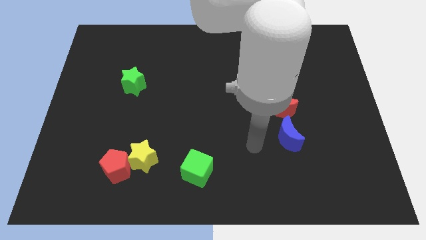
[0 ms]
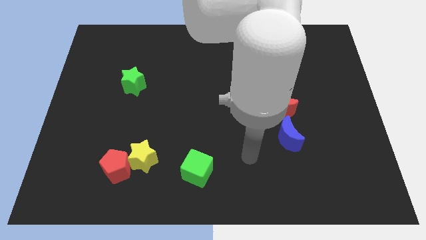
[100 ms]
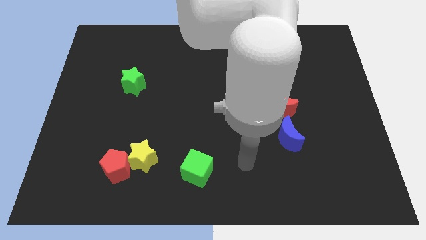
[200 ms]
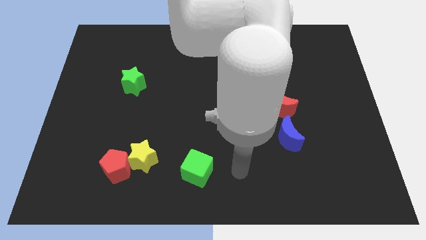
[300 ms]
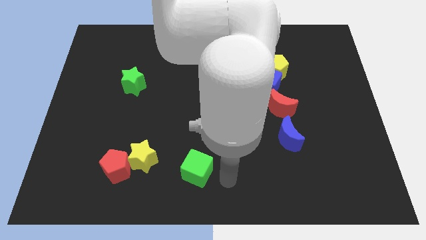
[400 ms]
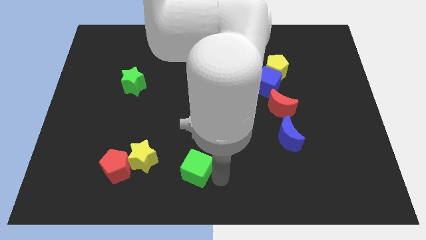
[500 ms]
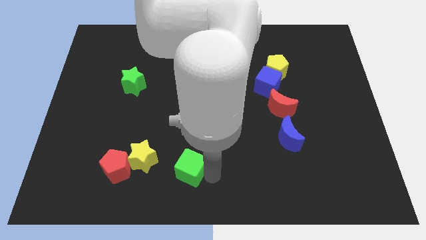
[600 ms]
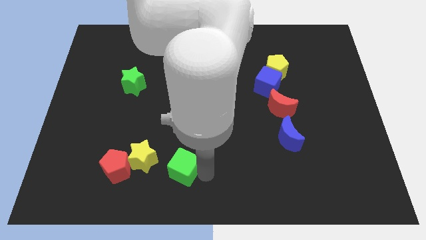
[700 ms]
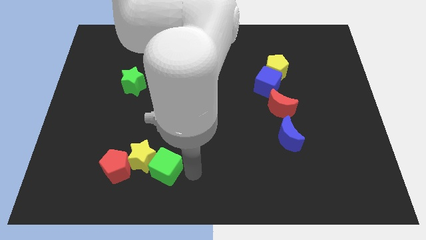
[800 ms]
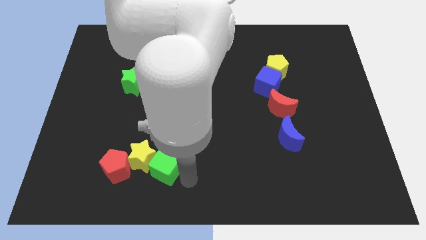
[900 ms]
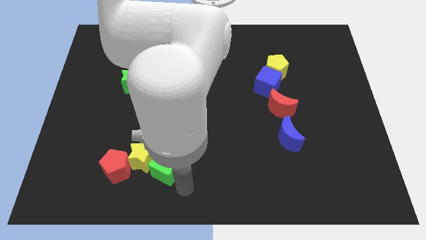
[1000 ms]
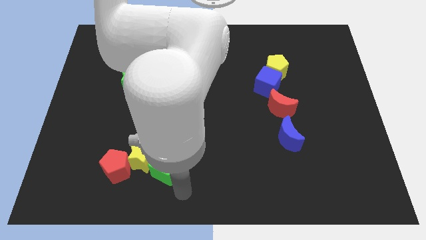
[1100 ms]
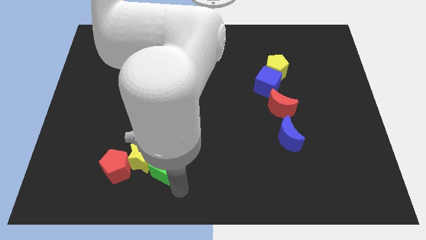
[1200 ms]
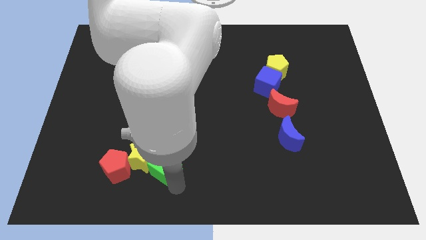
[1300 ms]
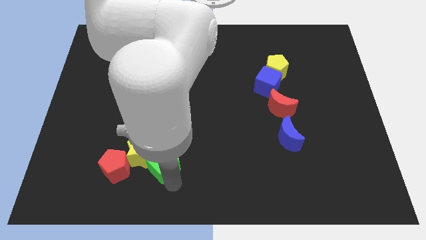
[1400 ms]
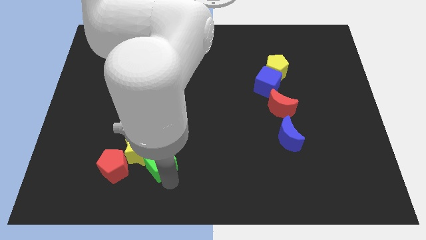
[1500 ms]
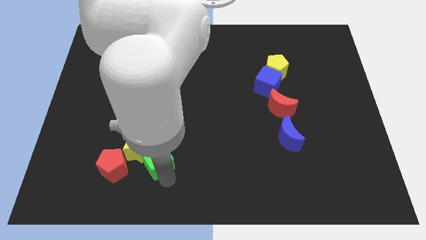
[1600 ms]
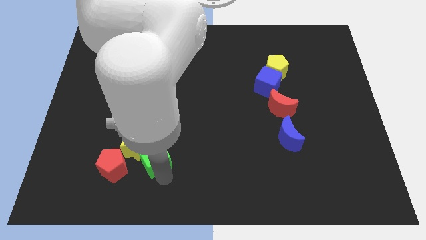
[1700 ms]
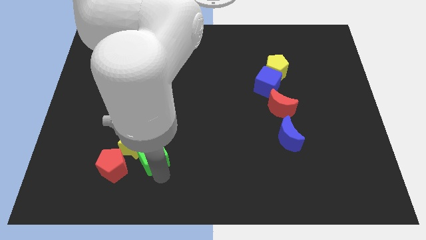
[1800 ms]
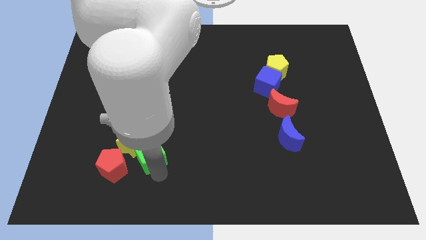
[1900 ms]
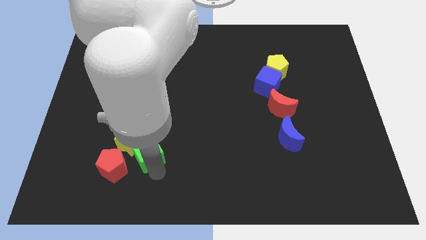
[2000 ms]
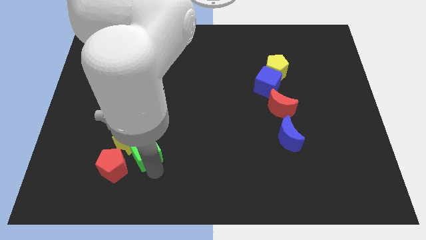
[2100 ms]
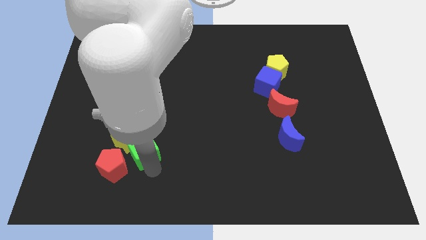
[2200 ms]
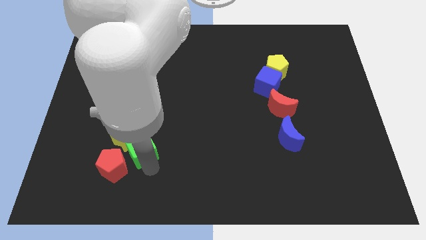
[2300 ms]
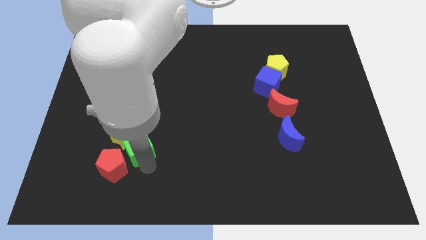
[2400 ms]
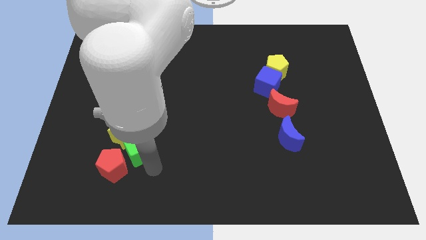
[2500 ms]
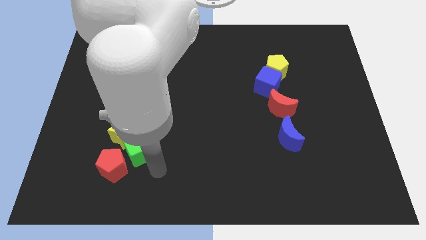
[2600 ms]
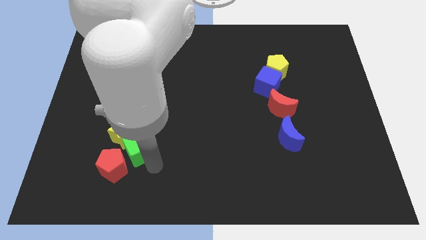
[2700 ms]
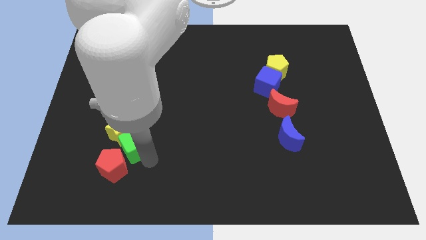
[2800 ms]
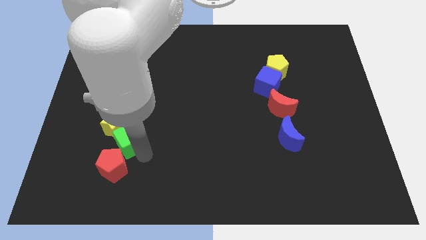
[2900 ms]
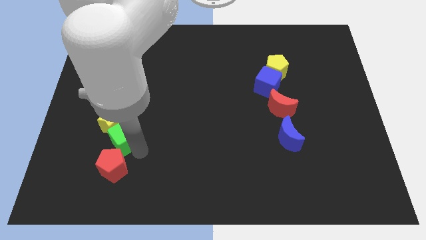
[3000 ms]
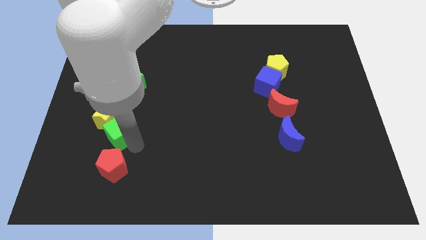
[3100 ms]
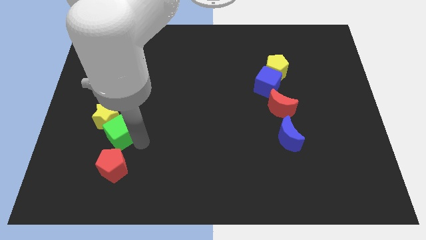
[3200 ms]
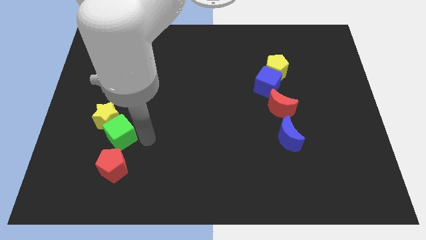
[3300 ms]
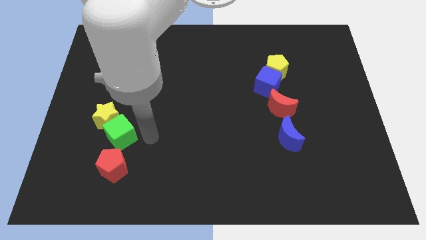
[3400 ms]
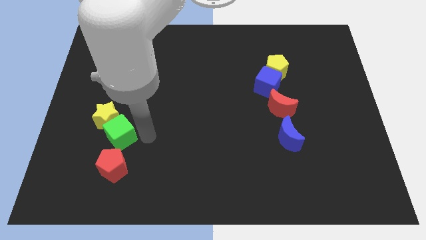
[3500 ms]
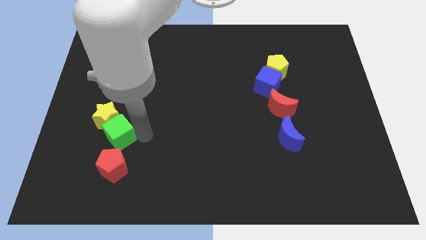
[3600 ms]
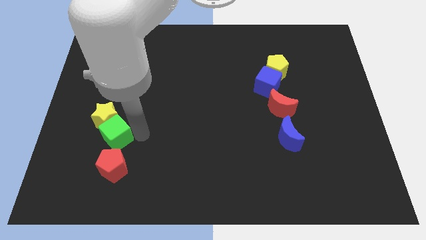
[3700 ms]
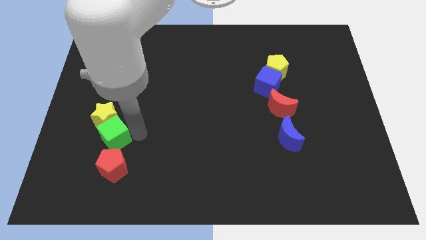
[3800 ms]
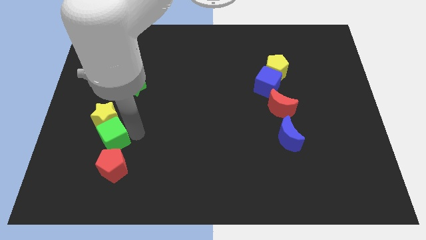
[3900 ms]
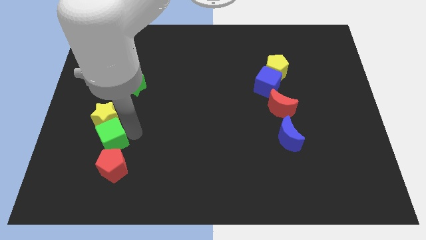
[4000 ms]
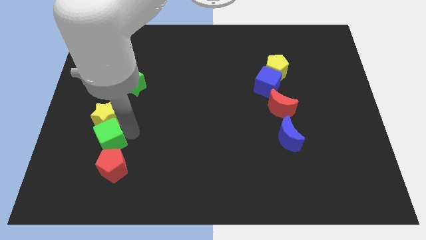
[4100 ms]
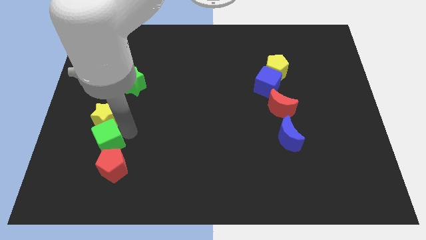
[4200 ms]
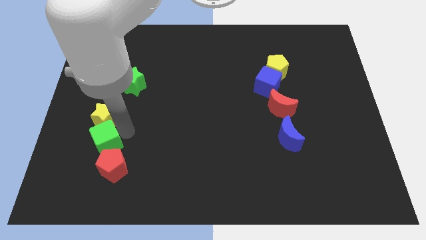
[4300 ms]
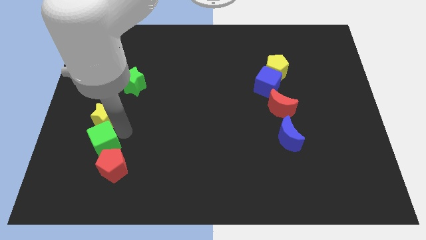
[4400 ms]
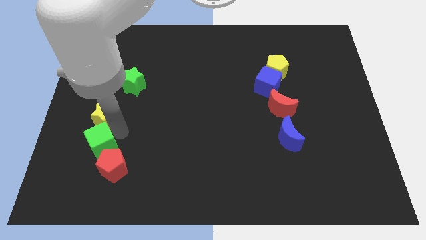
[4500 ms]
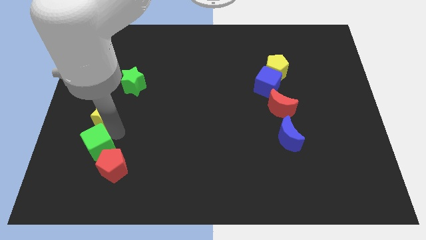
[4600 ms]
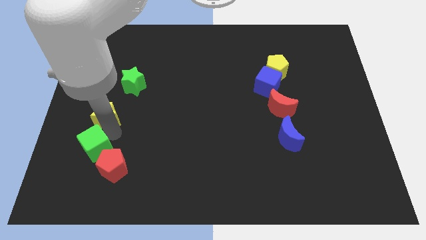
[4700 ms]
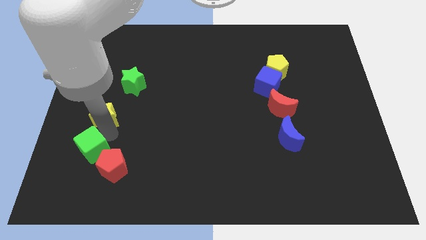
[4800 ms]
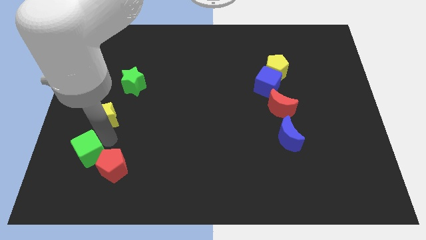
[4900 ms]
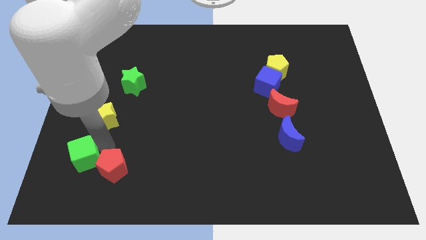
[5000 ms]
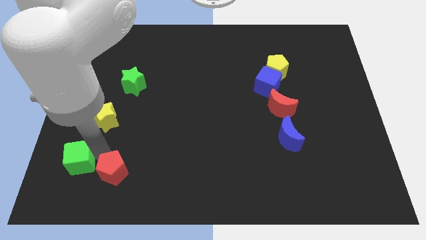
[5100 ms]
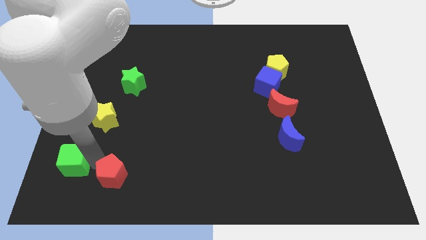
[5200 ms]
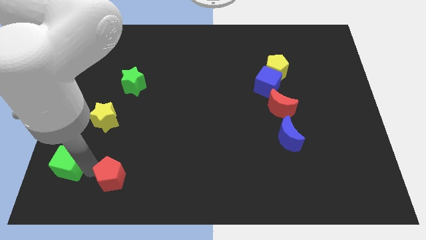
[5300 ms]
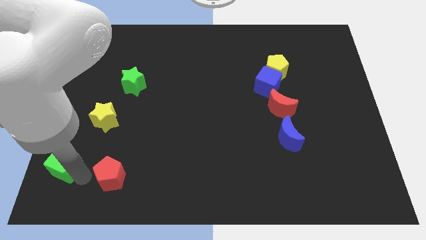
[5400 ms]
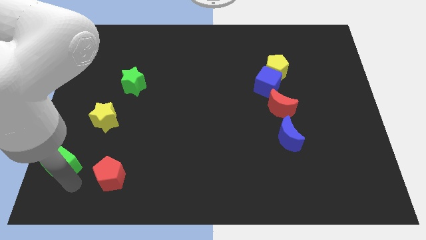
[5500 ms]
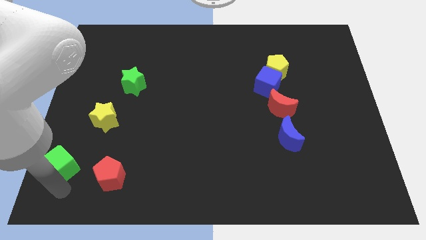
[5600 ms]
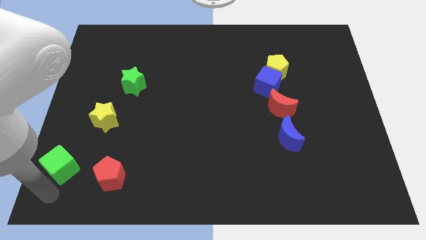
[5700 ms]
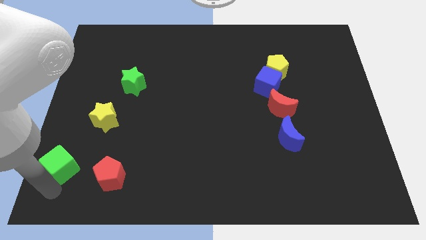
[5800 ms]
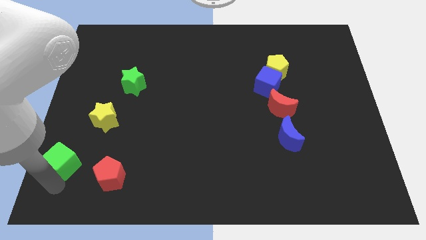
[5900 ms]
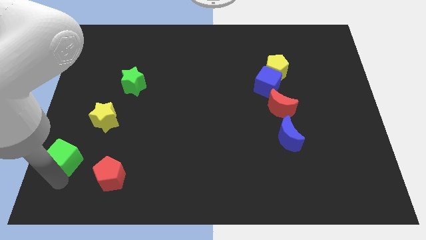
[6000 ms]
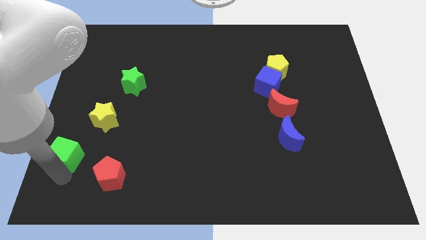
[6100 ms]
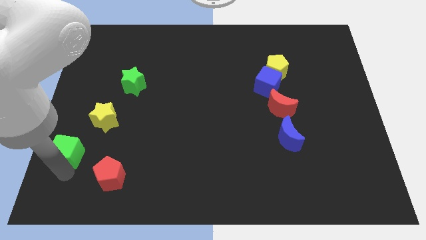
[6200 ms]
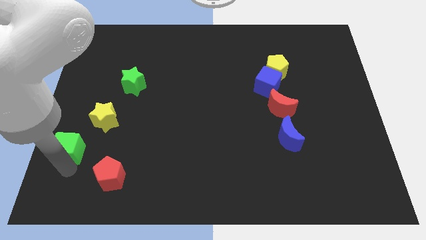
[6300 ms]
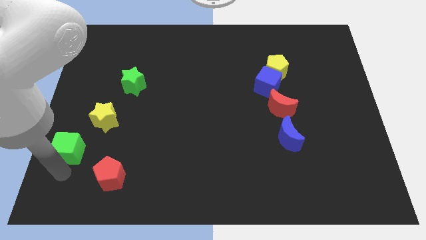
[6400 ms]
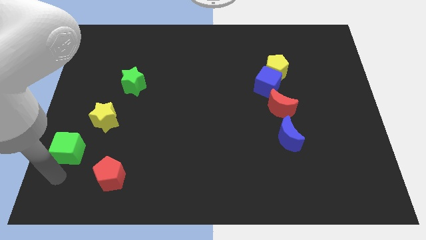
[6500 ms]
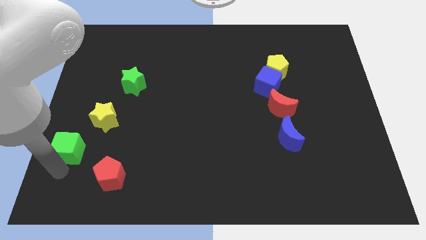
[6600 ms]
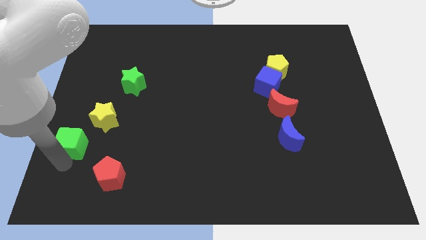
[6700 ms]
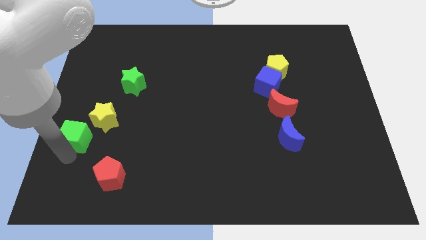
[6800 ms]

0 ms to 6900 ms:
put the green cube to the left side of the board
